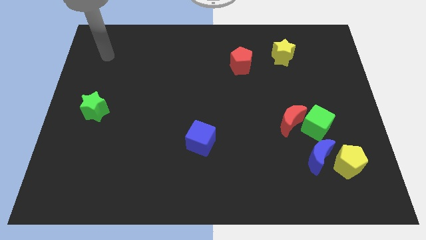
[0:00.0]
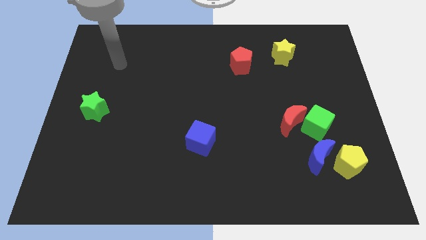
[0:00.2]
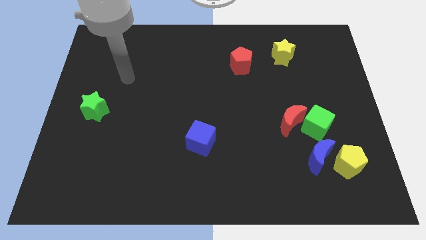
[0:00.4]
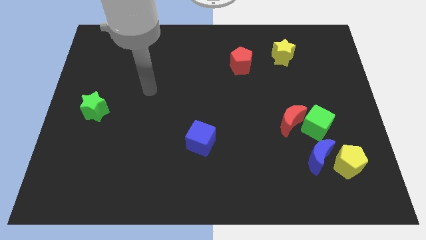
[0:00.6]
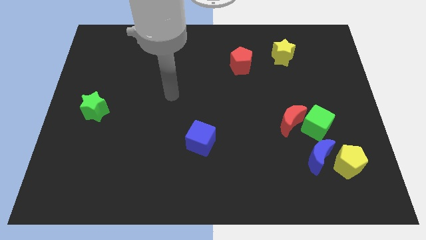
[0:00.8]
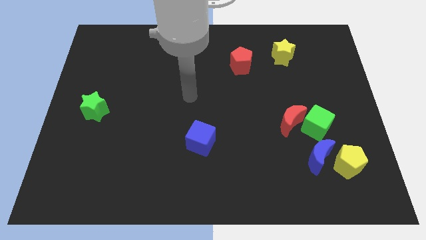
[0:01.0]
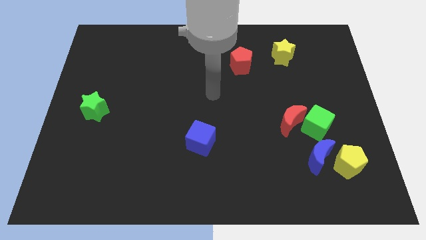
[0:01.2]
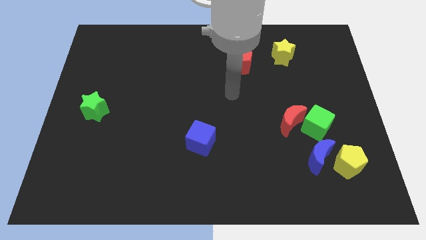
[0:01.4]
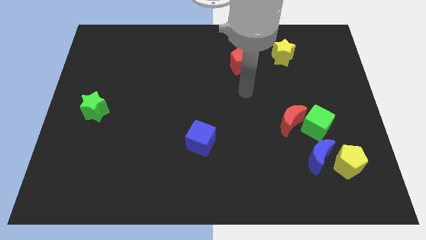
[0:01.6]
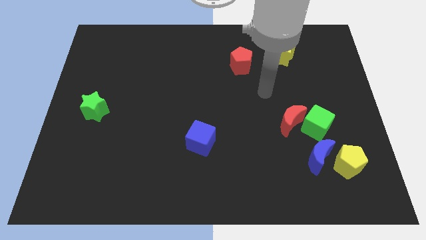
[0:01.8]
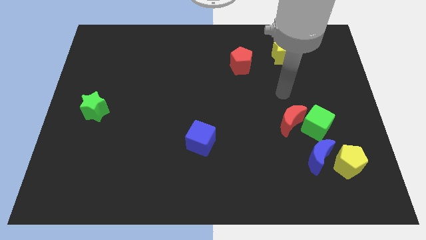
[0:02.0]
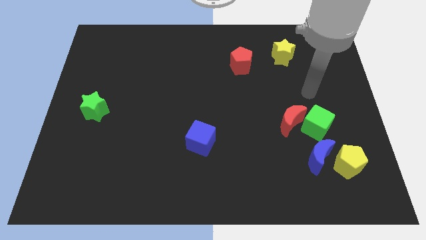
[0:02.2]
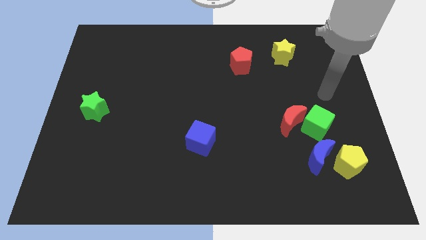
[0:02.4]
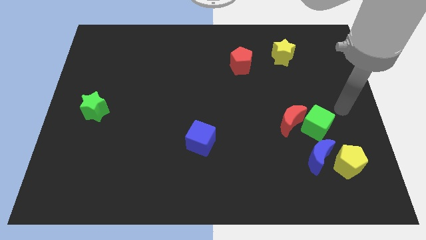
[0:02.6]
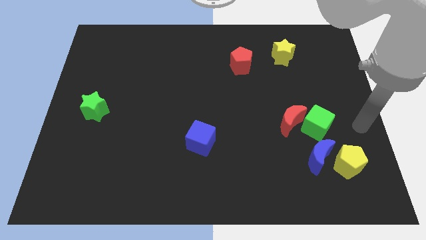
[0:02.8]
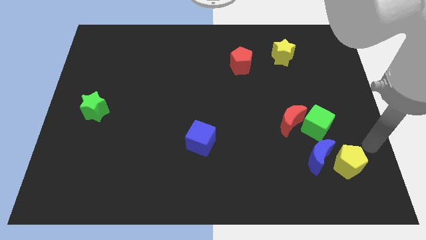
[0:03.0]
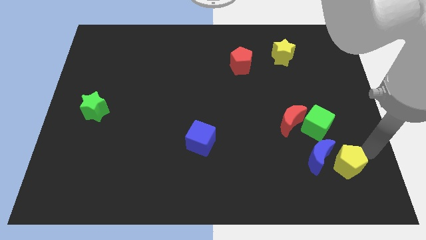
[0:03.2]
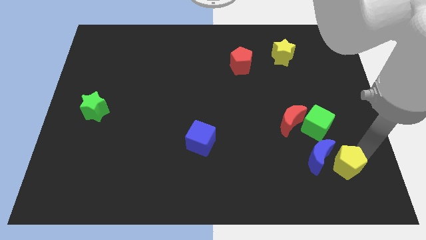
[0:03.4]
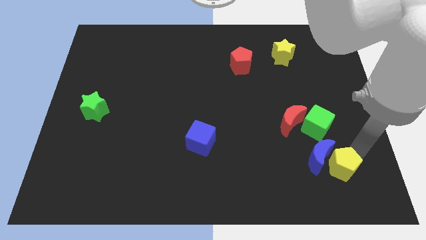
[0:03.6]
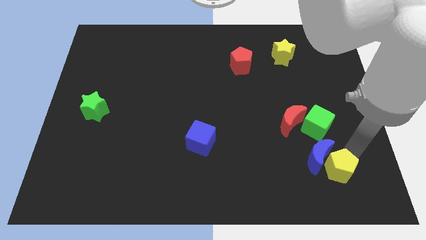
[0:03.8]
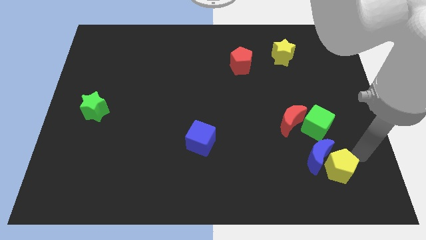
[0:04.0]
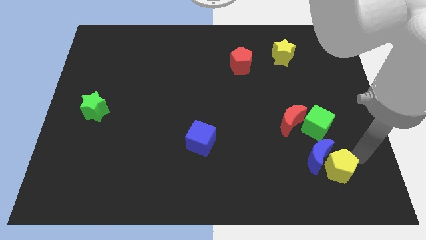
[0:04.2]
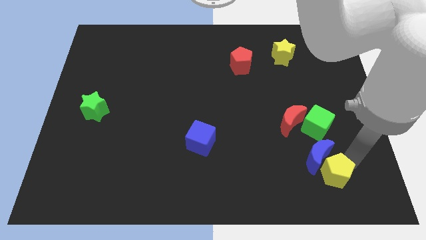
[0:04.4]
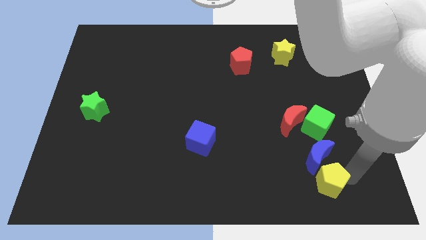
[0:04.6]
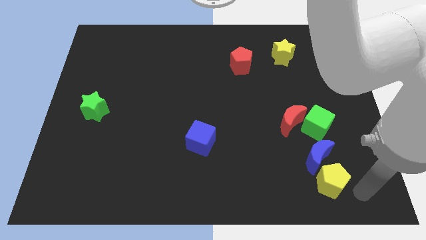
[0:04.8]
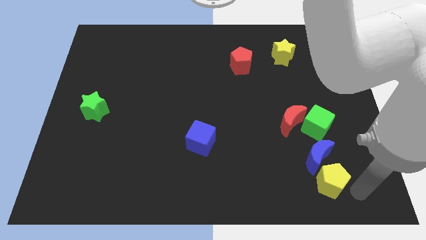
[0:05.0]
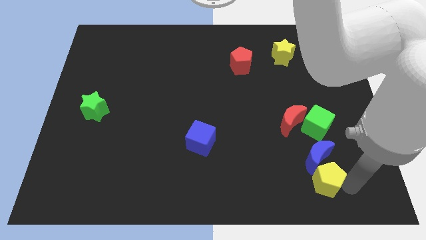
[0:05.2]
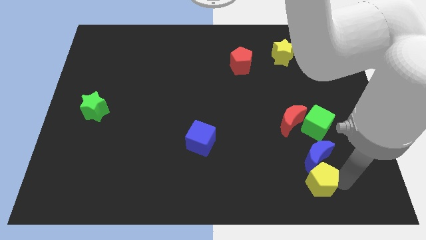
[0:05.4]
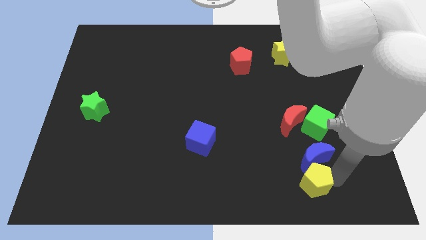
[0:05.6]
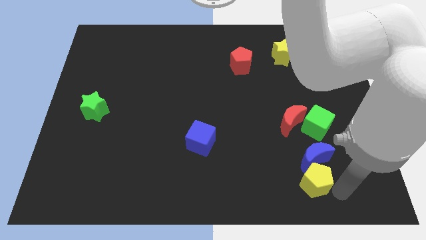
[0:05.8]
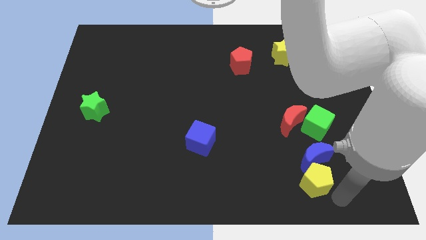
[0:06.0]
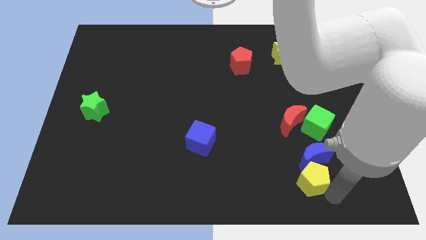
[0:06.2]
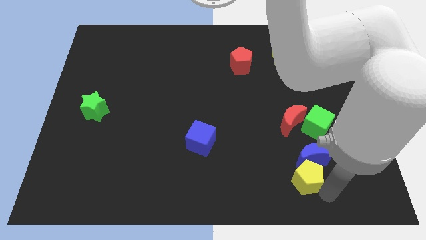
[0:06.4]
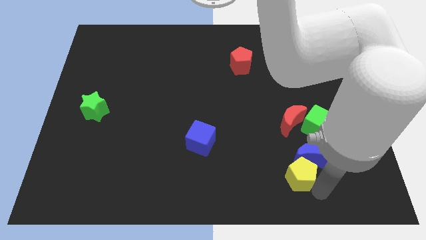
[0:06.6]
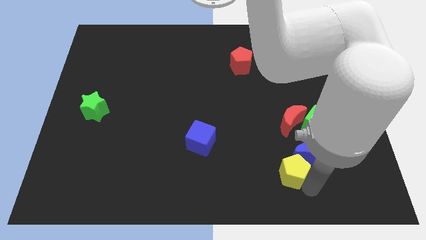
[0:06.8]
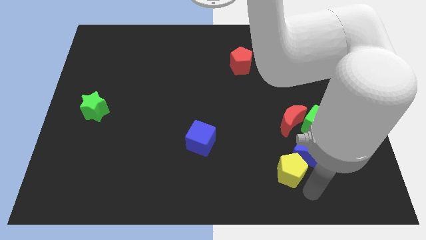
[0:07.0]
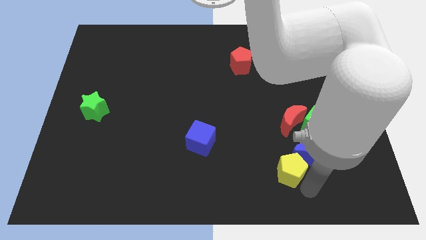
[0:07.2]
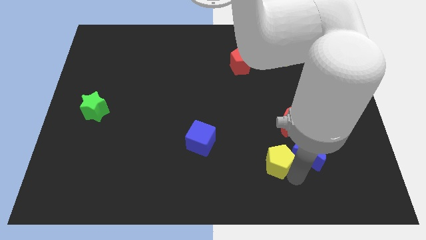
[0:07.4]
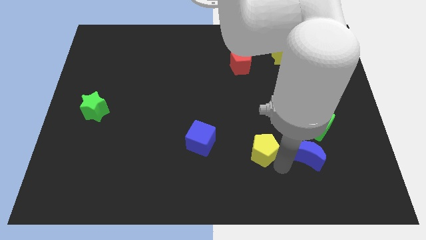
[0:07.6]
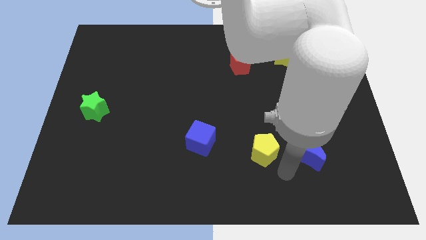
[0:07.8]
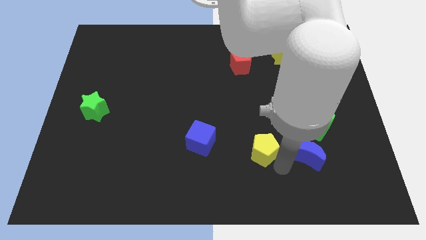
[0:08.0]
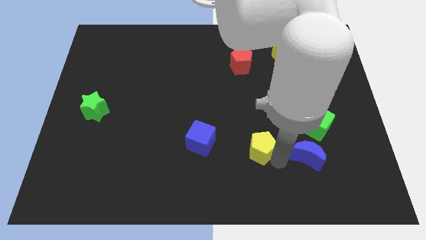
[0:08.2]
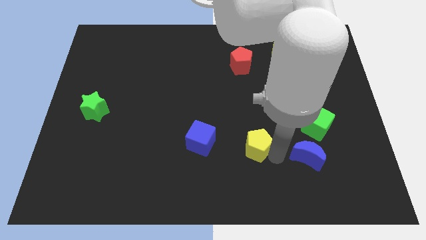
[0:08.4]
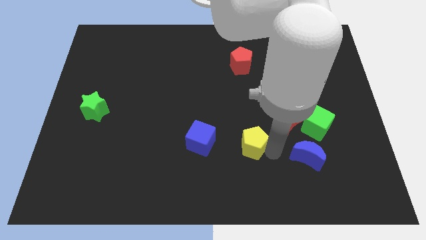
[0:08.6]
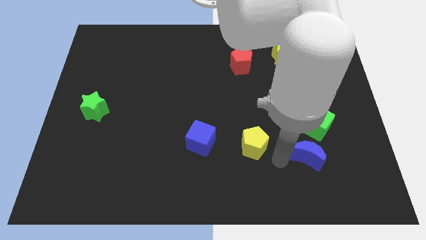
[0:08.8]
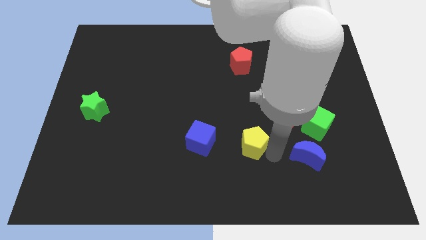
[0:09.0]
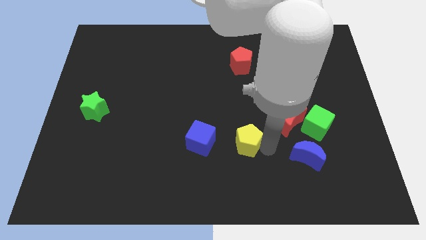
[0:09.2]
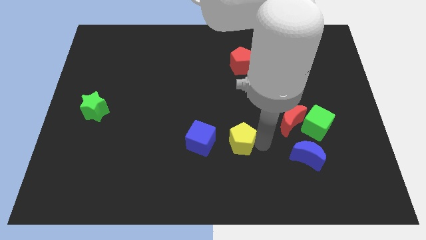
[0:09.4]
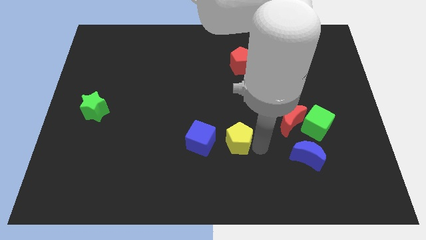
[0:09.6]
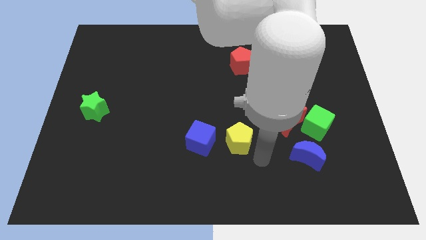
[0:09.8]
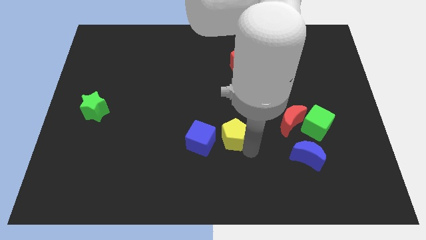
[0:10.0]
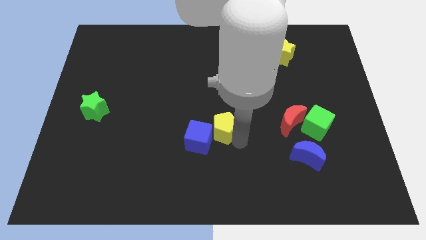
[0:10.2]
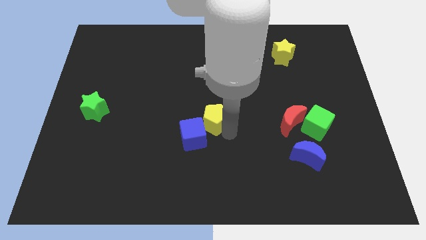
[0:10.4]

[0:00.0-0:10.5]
push the yellow pentagon to the top side of the blue cube

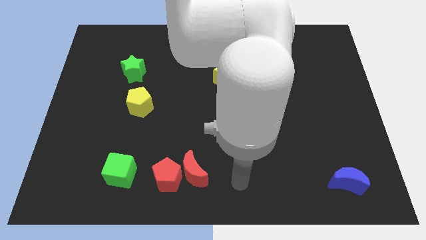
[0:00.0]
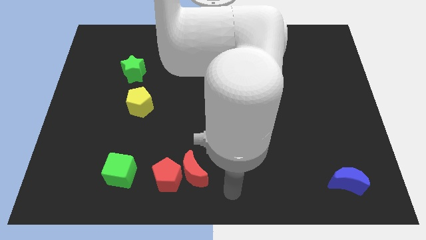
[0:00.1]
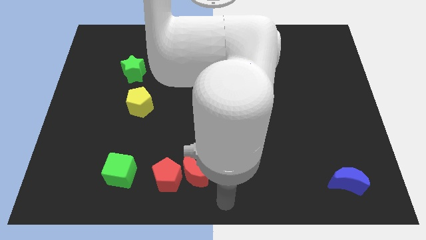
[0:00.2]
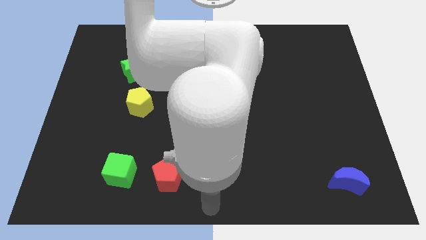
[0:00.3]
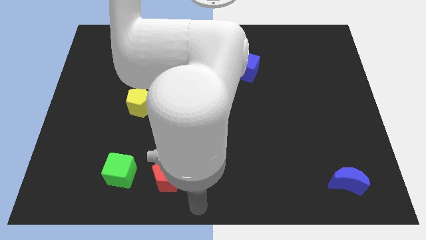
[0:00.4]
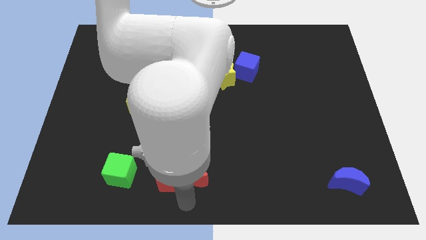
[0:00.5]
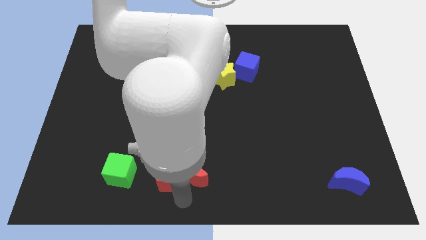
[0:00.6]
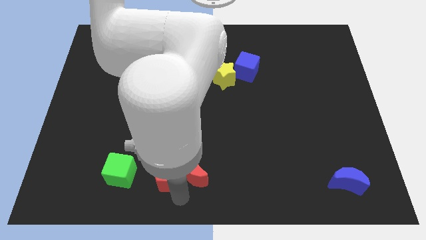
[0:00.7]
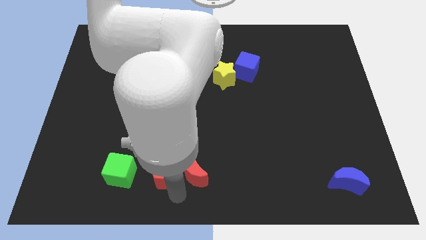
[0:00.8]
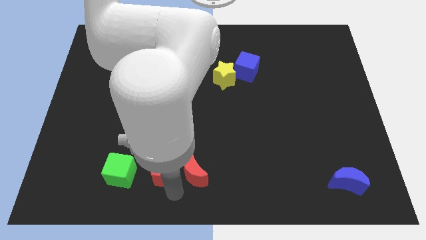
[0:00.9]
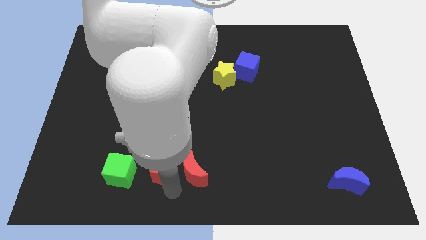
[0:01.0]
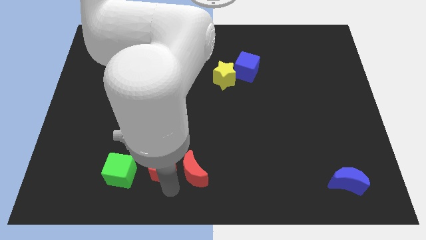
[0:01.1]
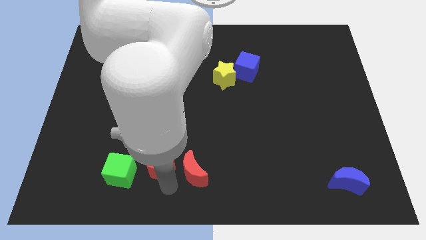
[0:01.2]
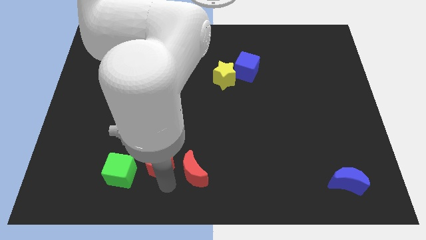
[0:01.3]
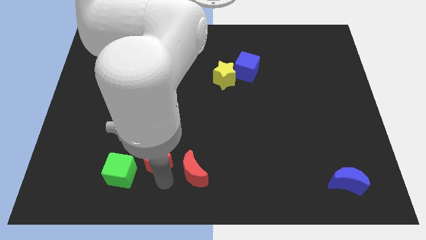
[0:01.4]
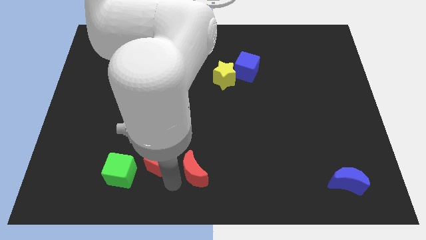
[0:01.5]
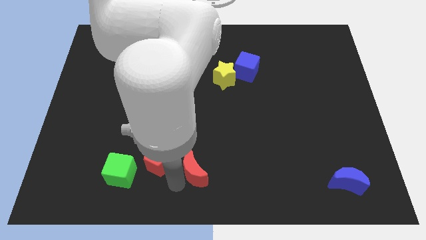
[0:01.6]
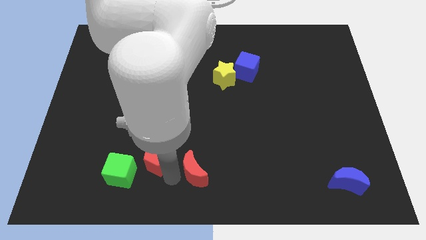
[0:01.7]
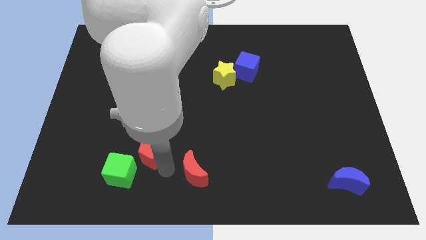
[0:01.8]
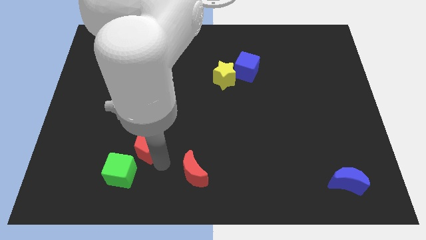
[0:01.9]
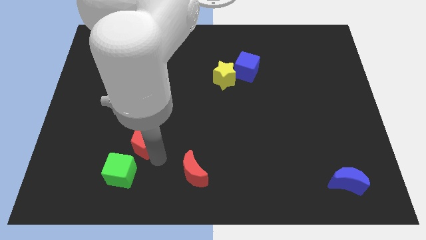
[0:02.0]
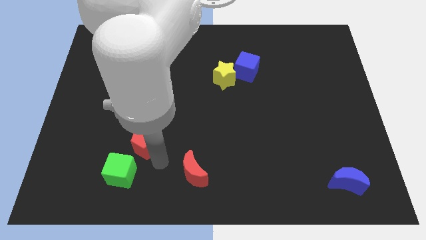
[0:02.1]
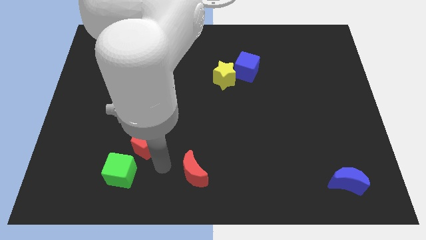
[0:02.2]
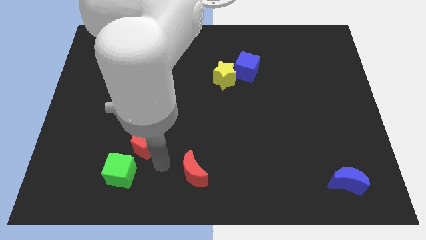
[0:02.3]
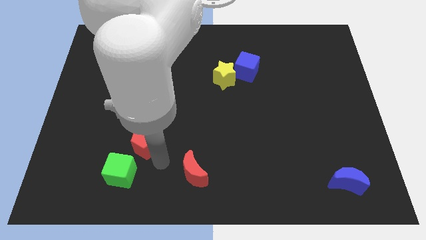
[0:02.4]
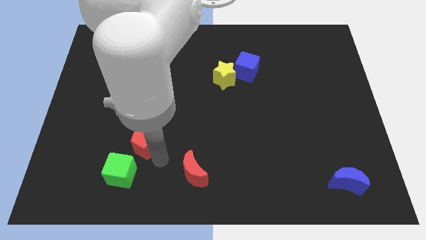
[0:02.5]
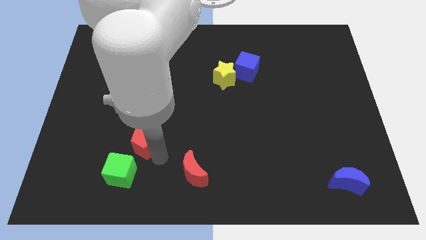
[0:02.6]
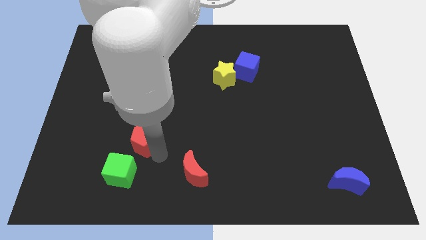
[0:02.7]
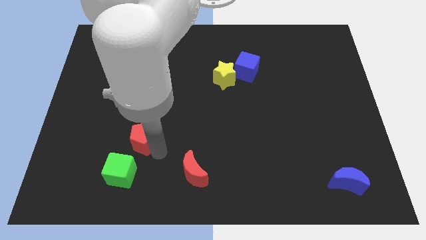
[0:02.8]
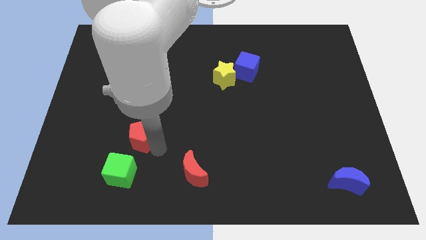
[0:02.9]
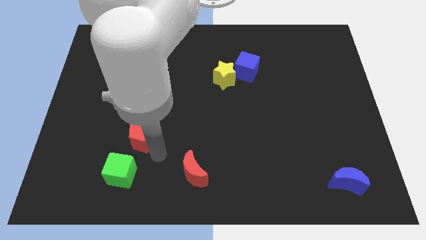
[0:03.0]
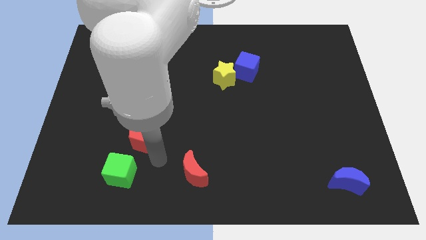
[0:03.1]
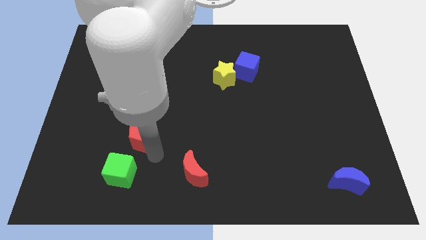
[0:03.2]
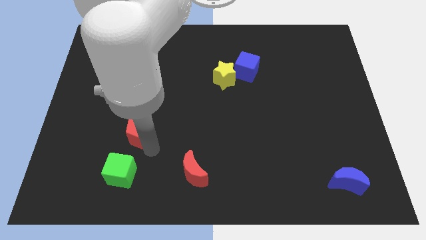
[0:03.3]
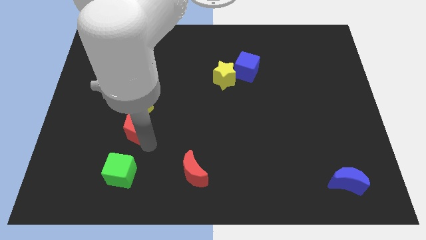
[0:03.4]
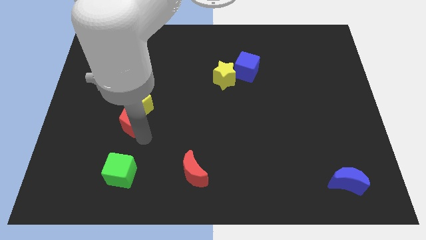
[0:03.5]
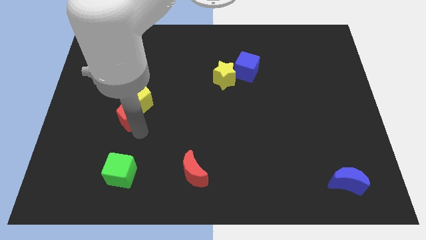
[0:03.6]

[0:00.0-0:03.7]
move the red pentagon below the green star
